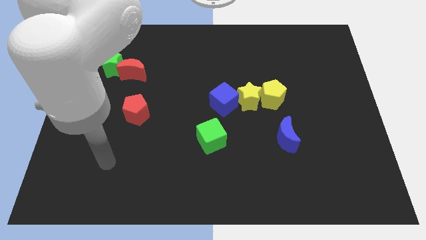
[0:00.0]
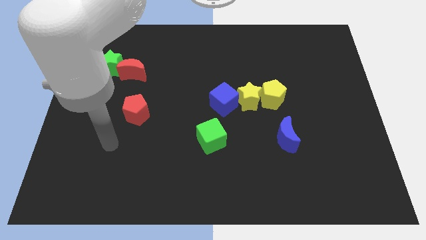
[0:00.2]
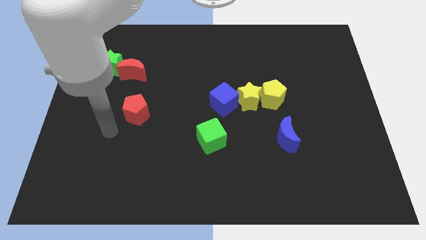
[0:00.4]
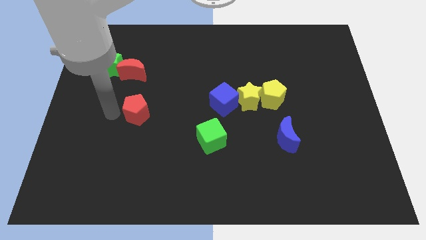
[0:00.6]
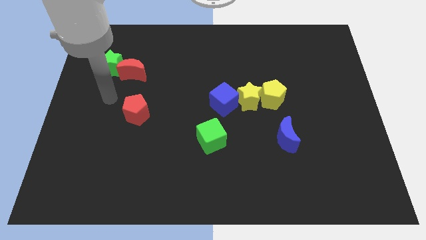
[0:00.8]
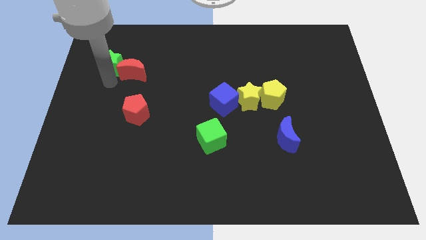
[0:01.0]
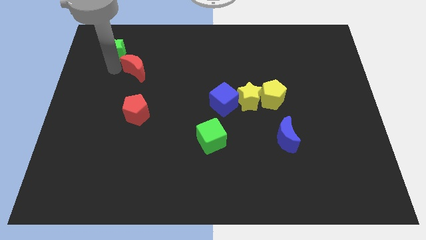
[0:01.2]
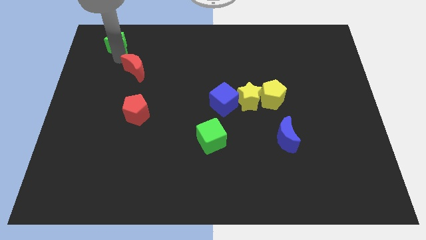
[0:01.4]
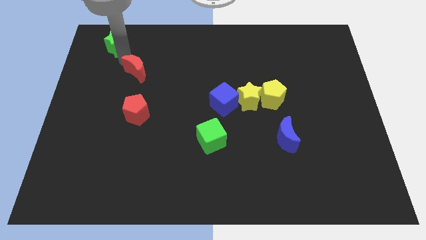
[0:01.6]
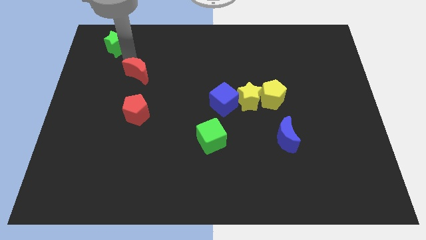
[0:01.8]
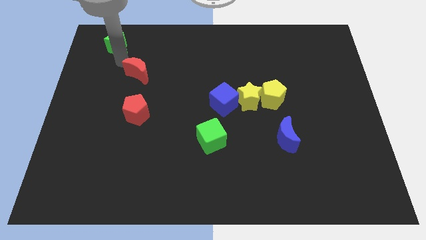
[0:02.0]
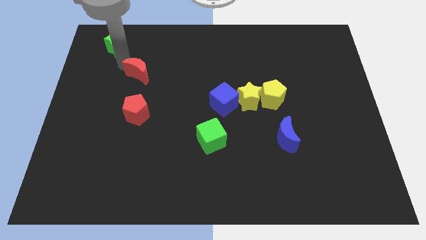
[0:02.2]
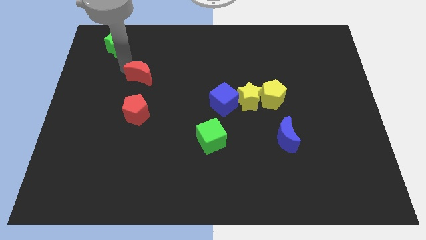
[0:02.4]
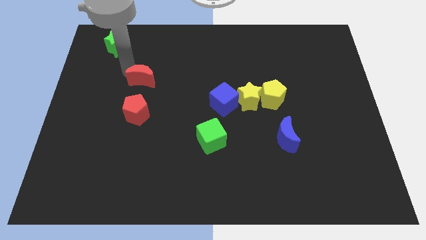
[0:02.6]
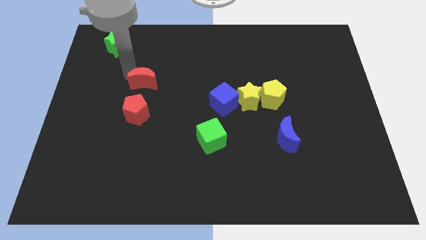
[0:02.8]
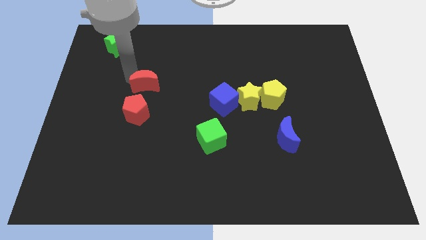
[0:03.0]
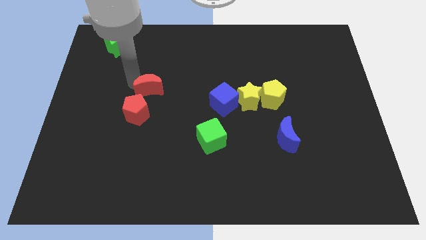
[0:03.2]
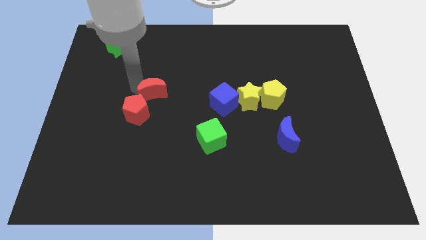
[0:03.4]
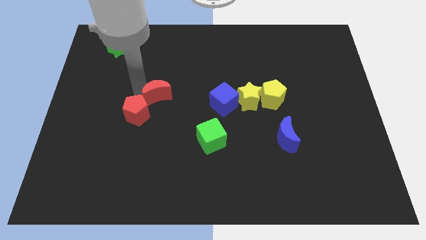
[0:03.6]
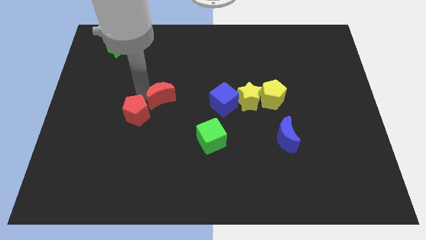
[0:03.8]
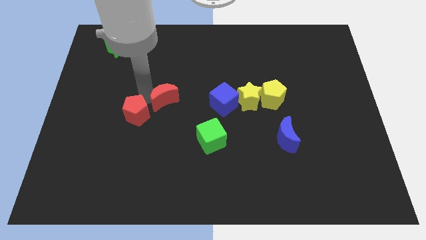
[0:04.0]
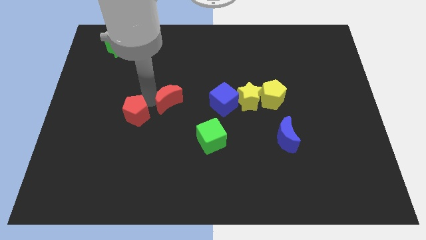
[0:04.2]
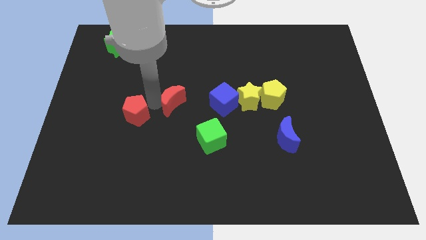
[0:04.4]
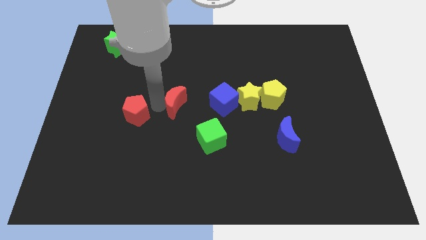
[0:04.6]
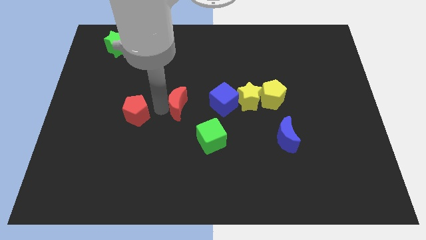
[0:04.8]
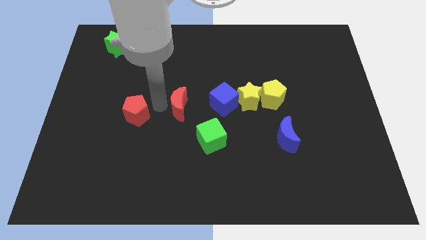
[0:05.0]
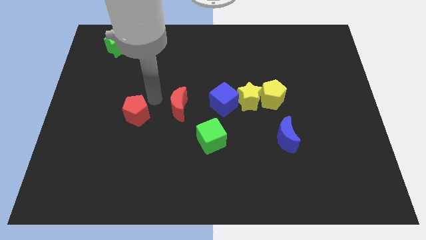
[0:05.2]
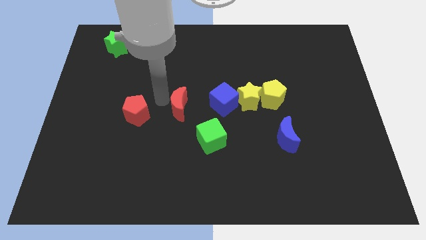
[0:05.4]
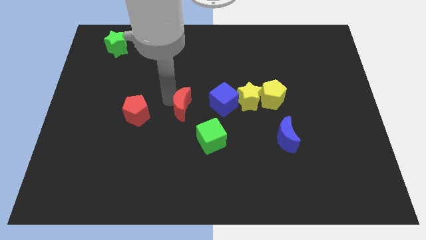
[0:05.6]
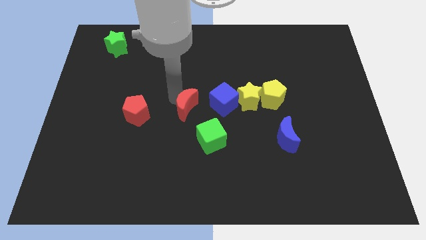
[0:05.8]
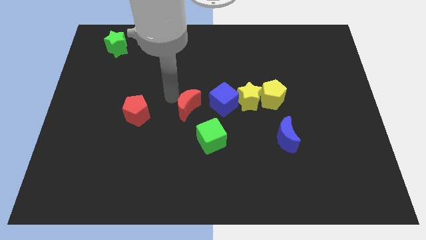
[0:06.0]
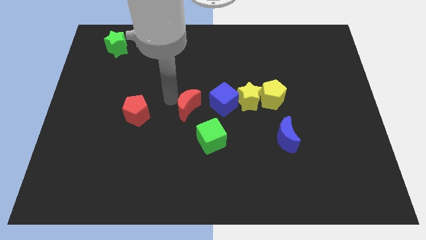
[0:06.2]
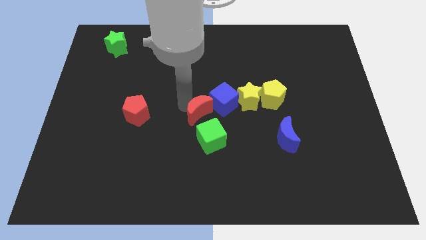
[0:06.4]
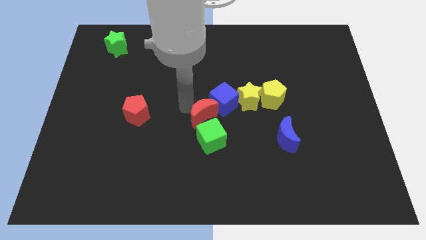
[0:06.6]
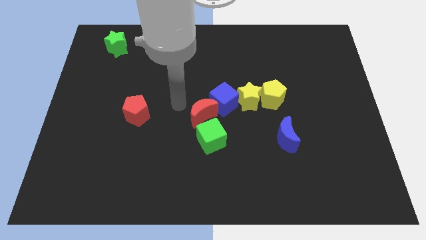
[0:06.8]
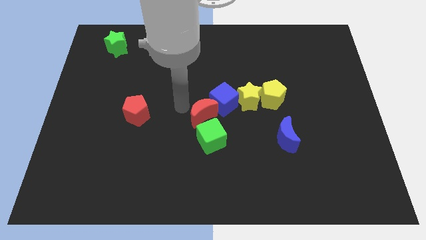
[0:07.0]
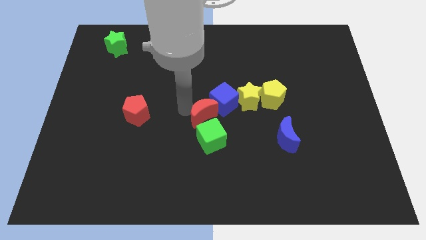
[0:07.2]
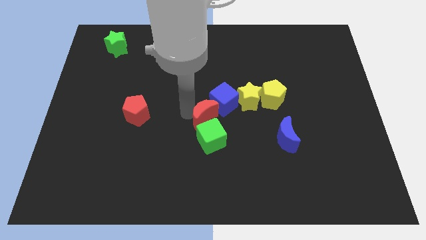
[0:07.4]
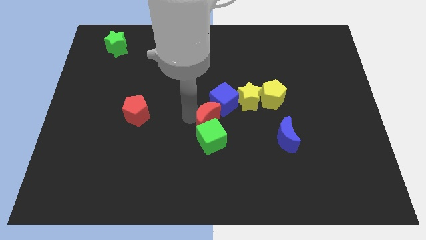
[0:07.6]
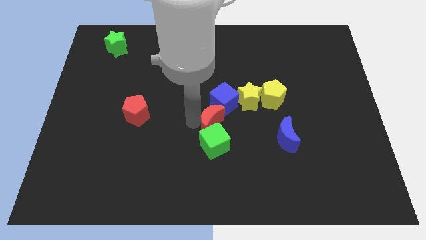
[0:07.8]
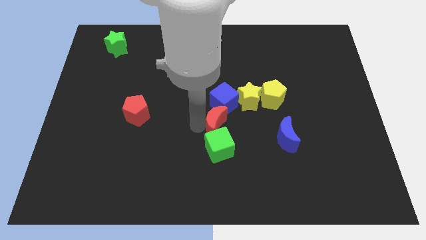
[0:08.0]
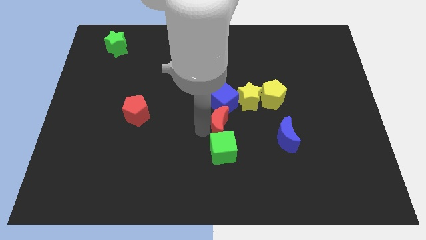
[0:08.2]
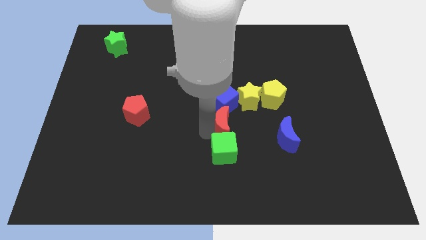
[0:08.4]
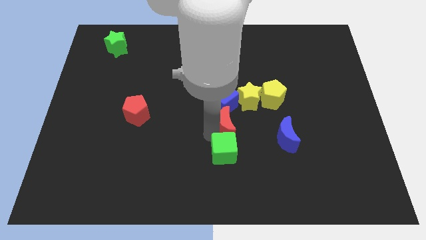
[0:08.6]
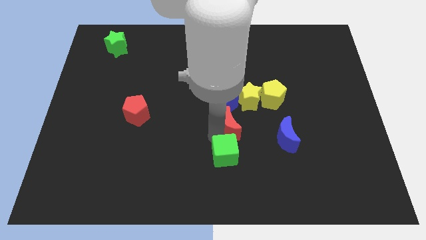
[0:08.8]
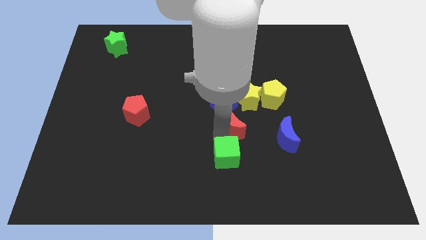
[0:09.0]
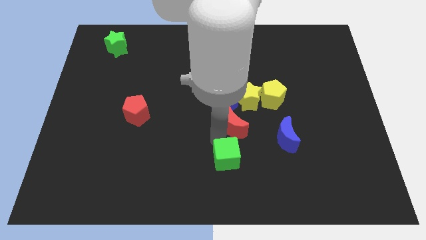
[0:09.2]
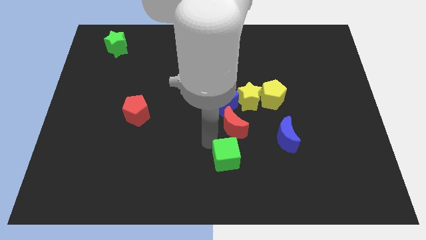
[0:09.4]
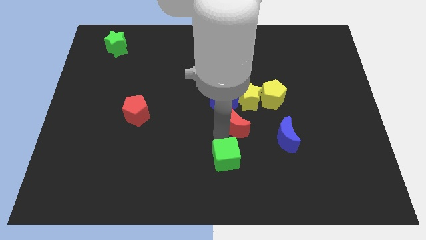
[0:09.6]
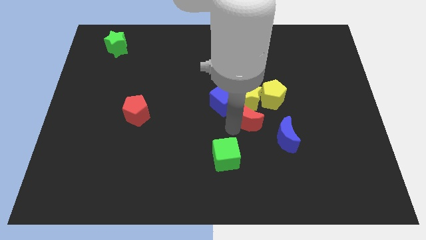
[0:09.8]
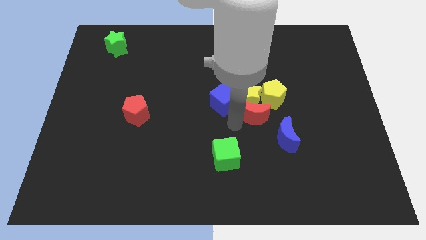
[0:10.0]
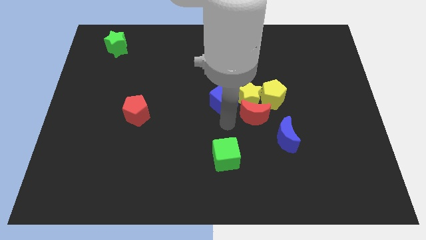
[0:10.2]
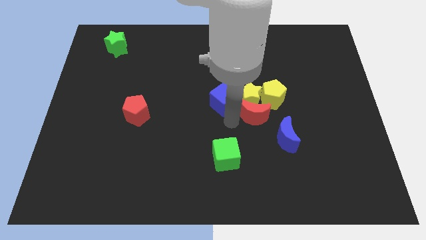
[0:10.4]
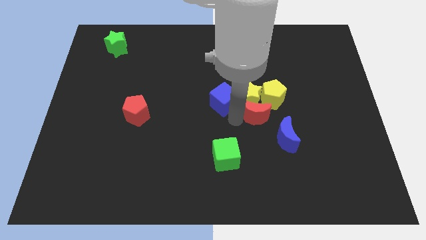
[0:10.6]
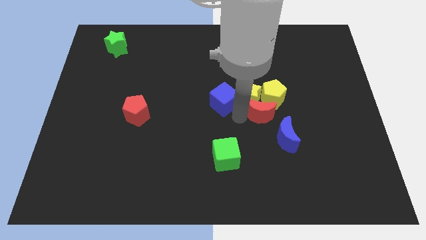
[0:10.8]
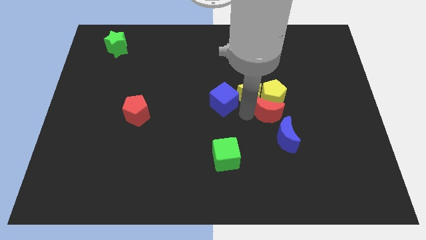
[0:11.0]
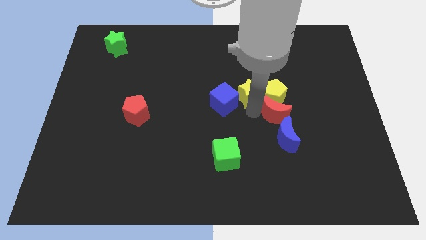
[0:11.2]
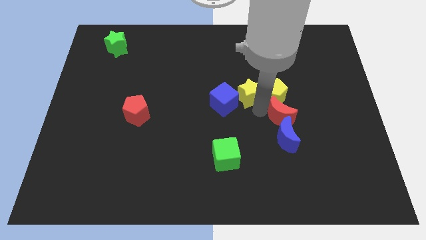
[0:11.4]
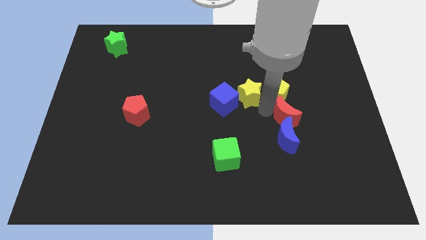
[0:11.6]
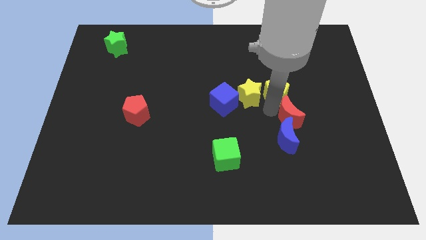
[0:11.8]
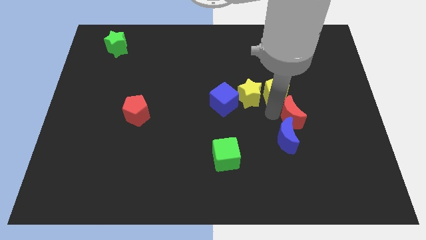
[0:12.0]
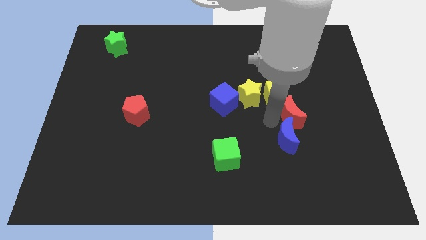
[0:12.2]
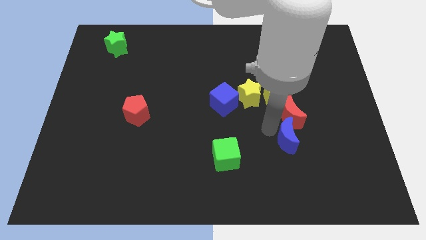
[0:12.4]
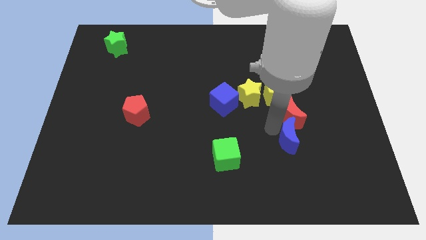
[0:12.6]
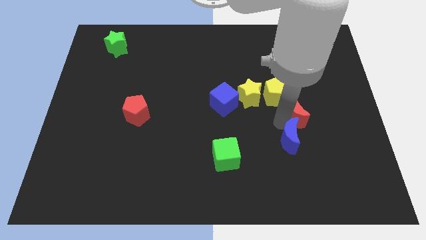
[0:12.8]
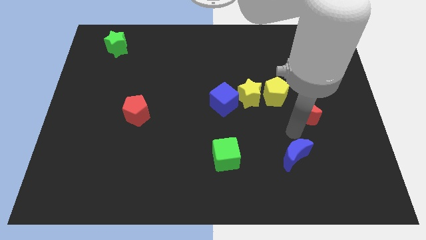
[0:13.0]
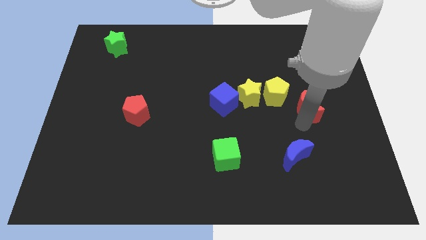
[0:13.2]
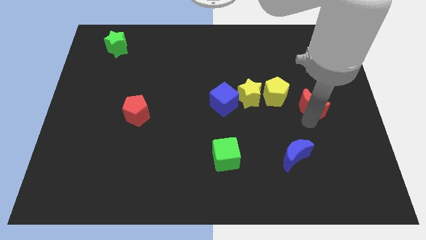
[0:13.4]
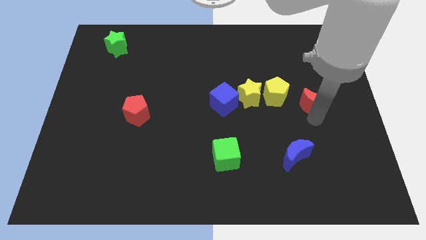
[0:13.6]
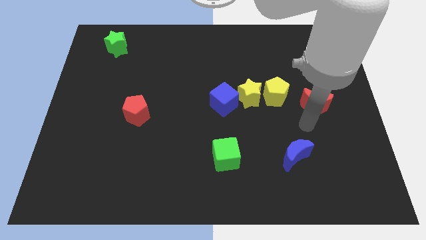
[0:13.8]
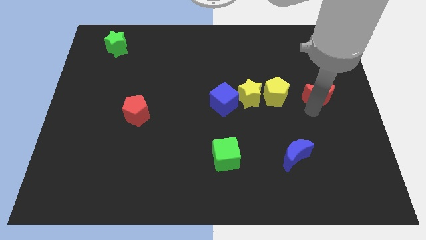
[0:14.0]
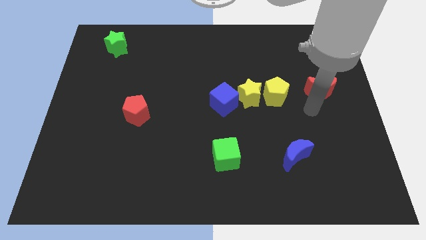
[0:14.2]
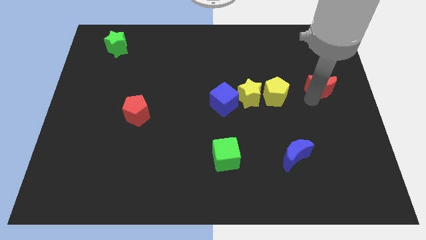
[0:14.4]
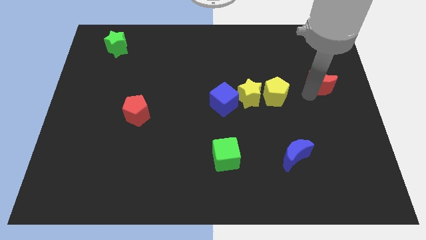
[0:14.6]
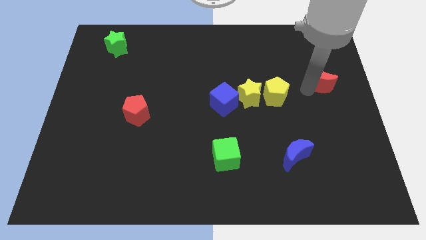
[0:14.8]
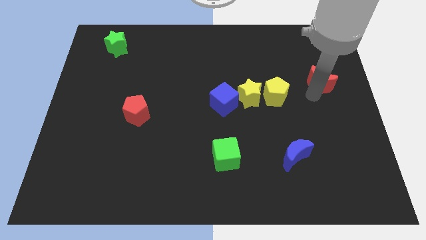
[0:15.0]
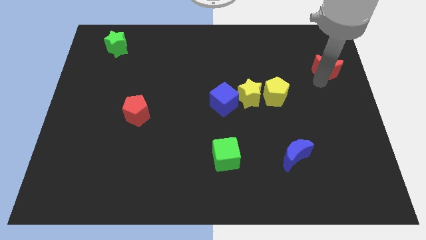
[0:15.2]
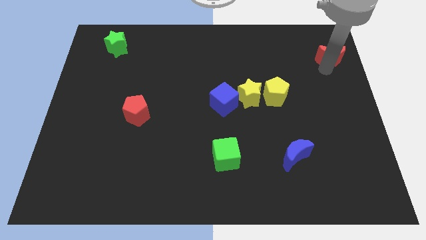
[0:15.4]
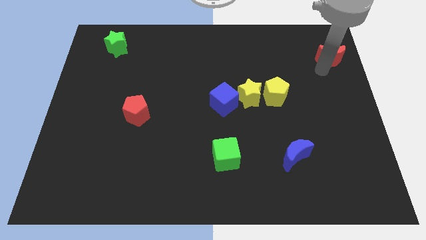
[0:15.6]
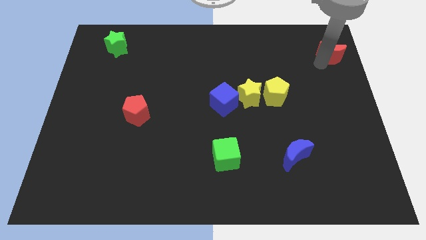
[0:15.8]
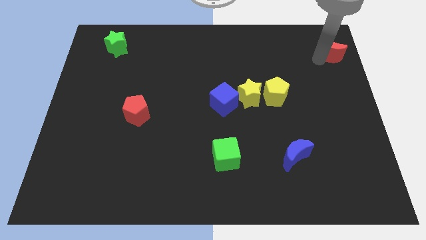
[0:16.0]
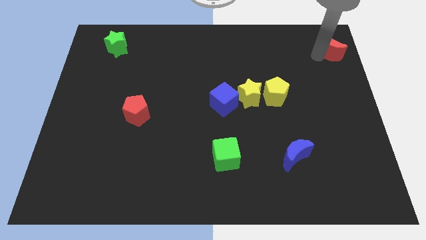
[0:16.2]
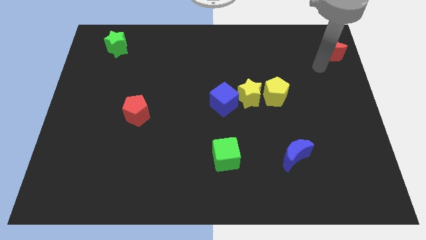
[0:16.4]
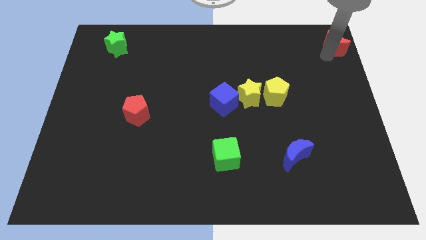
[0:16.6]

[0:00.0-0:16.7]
put the red moon to the upper right corner
